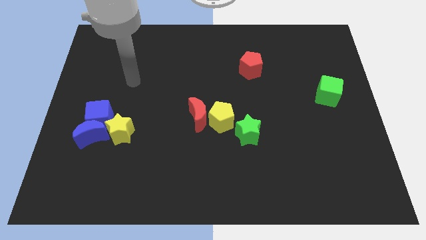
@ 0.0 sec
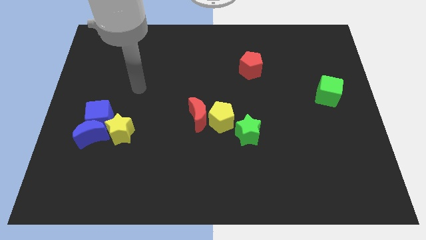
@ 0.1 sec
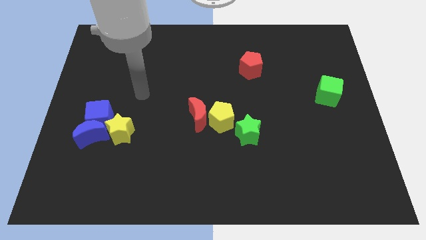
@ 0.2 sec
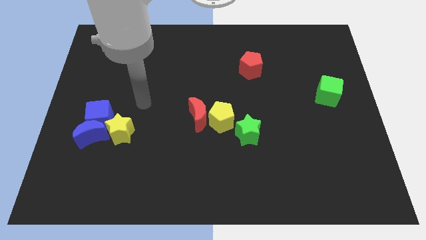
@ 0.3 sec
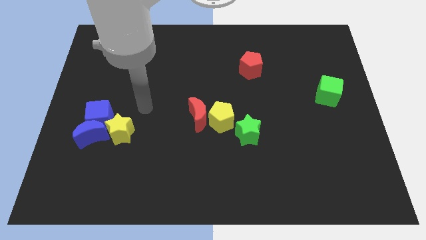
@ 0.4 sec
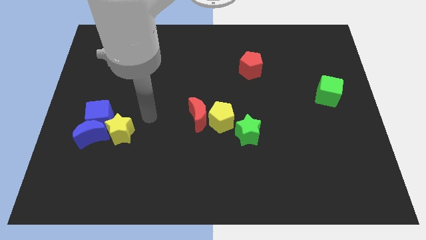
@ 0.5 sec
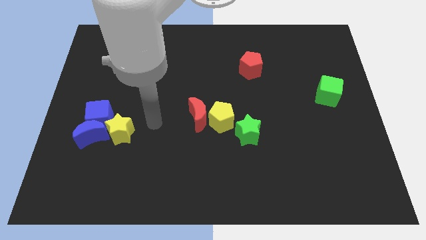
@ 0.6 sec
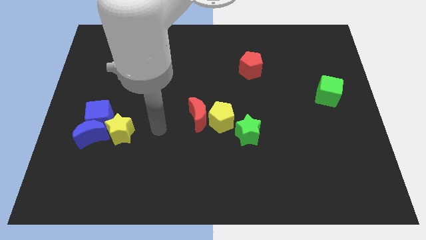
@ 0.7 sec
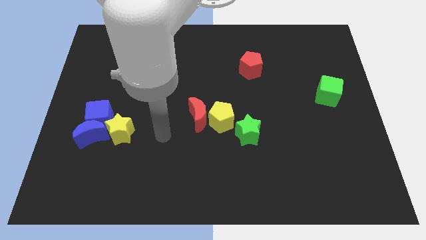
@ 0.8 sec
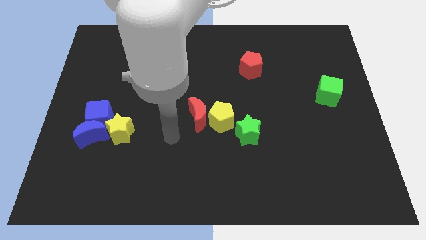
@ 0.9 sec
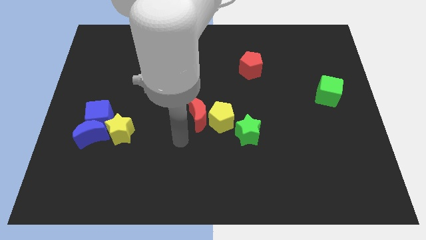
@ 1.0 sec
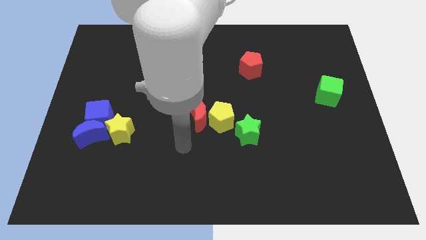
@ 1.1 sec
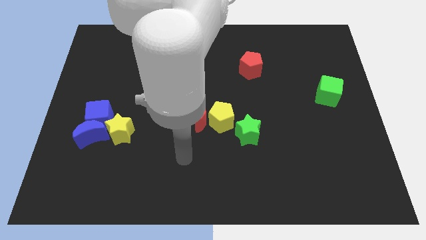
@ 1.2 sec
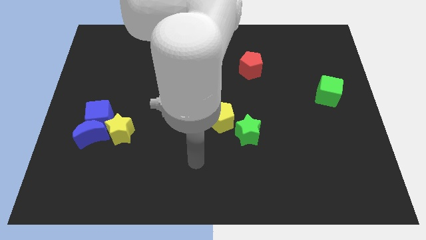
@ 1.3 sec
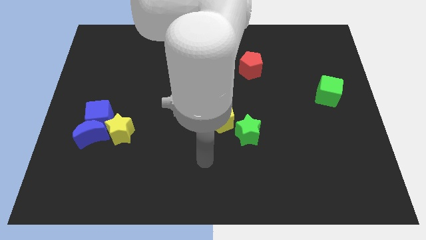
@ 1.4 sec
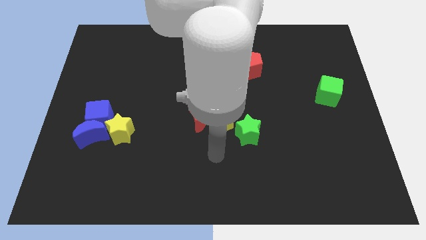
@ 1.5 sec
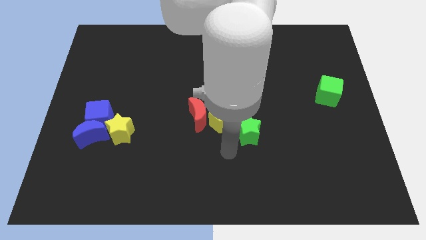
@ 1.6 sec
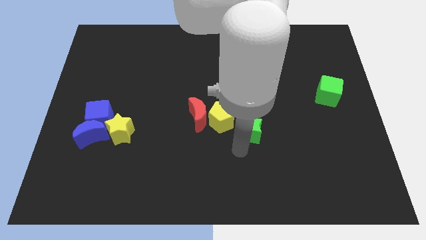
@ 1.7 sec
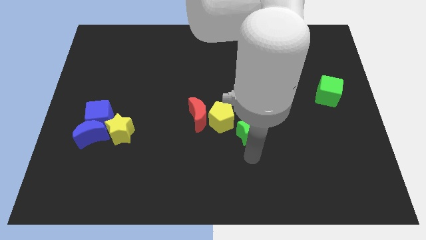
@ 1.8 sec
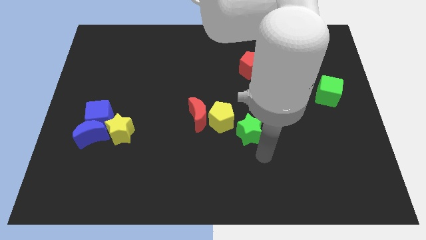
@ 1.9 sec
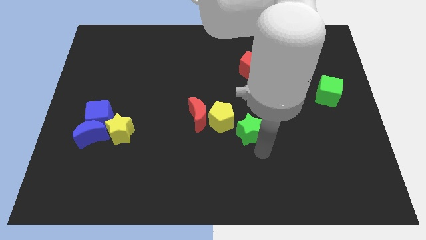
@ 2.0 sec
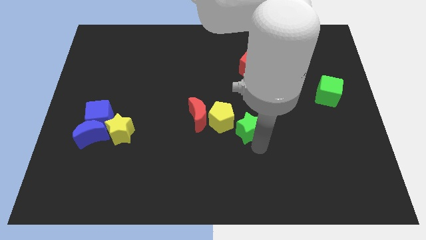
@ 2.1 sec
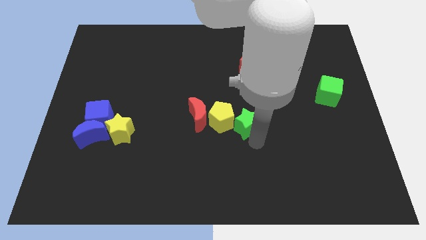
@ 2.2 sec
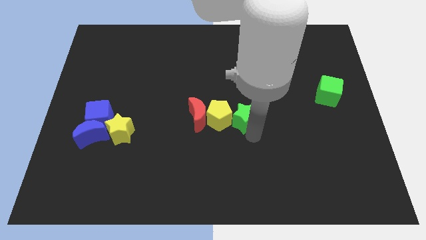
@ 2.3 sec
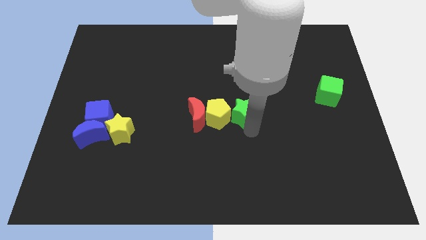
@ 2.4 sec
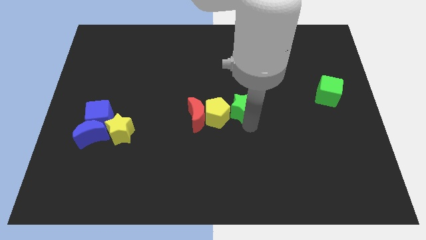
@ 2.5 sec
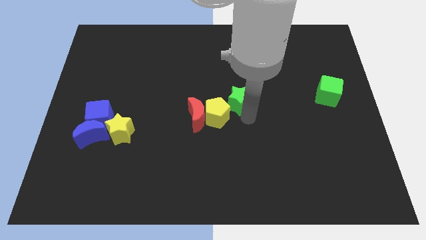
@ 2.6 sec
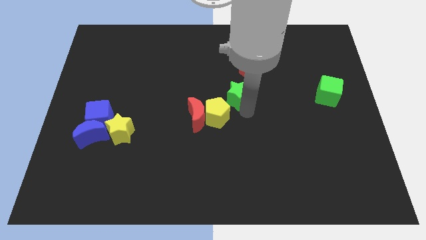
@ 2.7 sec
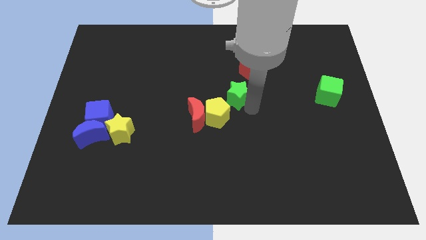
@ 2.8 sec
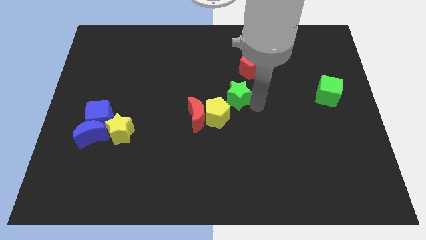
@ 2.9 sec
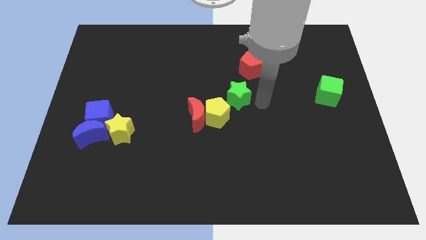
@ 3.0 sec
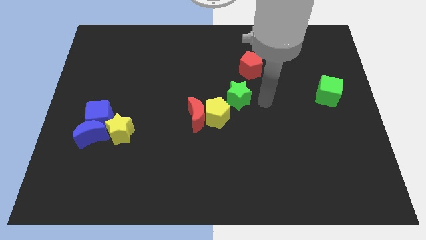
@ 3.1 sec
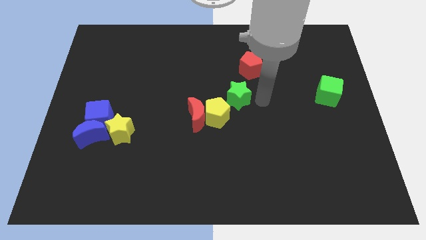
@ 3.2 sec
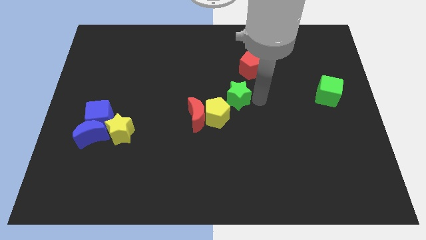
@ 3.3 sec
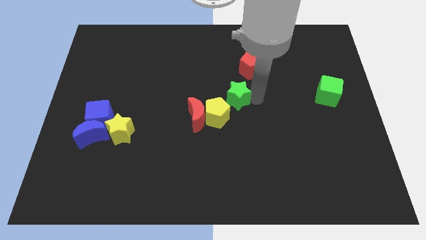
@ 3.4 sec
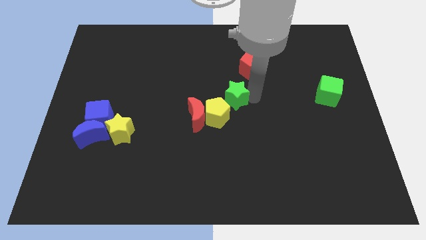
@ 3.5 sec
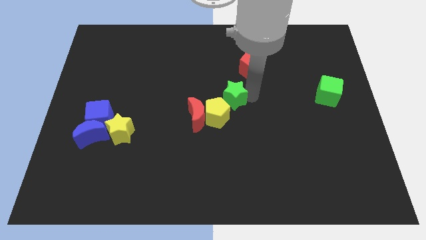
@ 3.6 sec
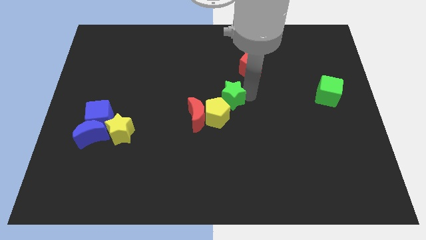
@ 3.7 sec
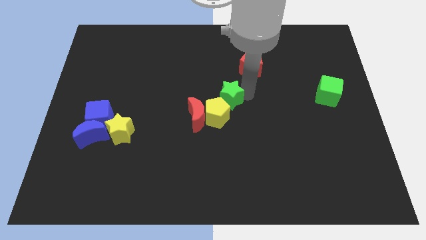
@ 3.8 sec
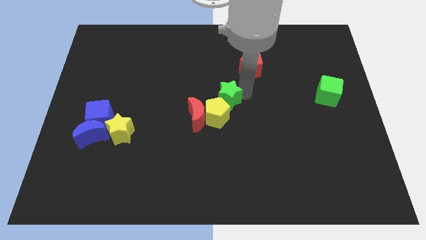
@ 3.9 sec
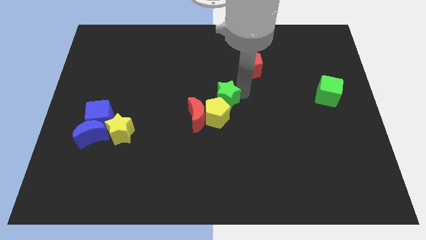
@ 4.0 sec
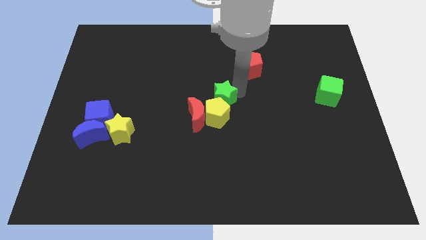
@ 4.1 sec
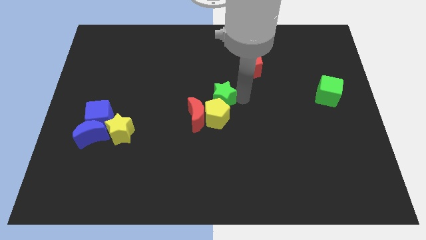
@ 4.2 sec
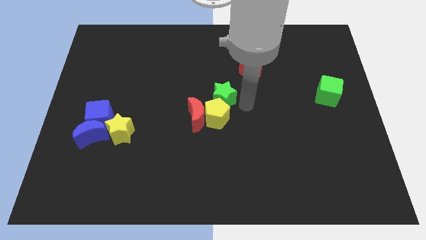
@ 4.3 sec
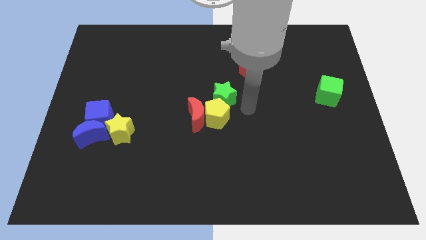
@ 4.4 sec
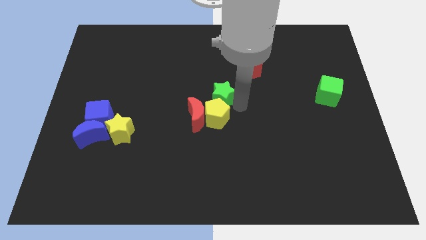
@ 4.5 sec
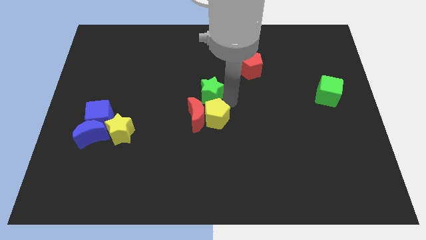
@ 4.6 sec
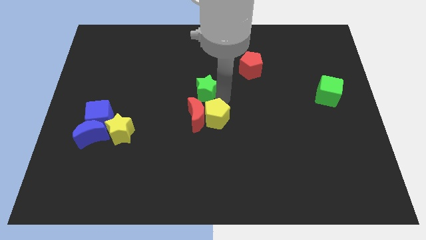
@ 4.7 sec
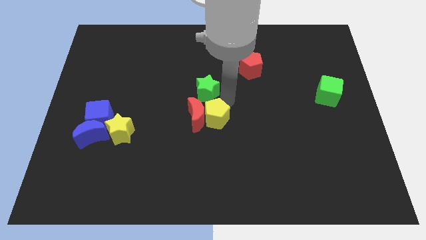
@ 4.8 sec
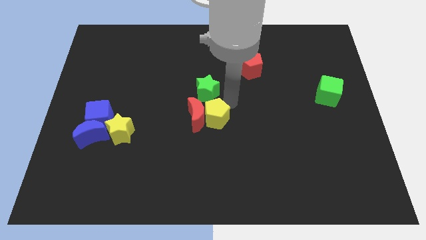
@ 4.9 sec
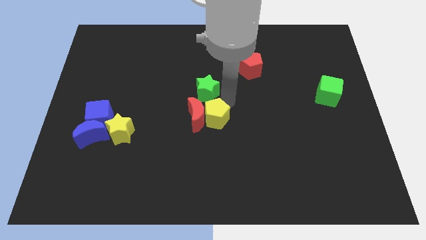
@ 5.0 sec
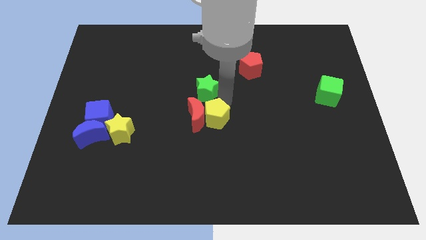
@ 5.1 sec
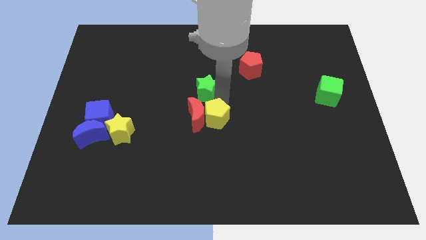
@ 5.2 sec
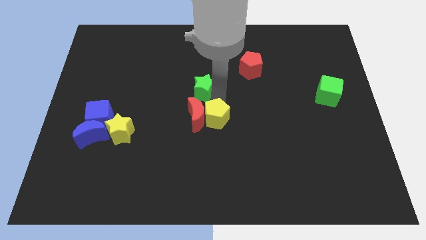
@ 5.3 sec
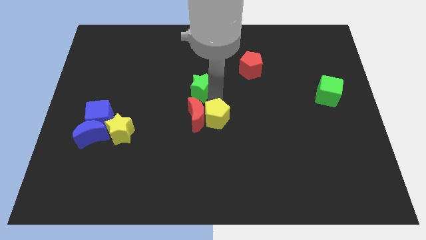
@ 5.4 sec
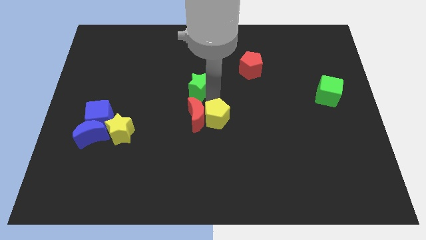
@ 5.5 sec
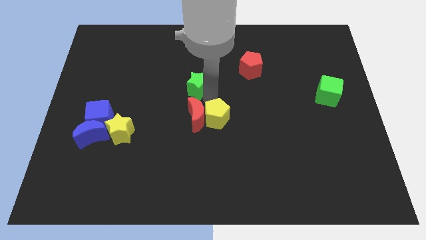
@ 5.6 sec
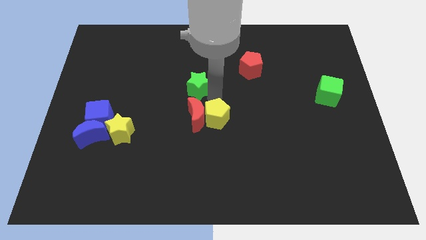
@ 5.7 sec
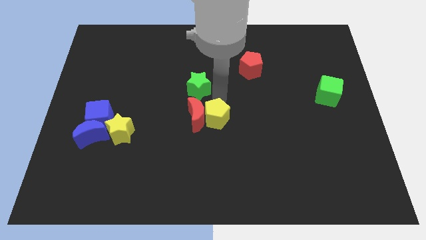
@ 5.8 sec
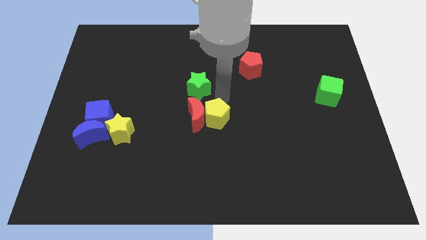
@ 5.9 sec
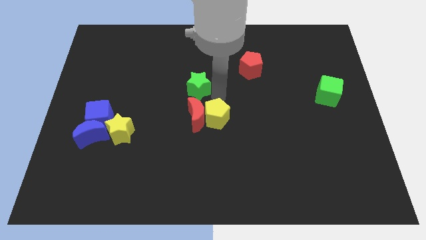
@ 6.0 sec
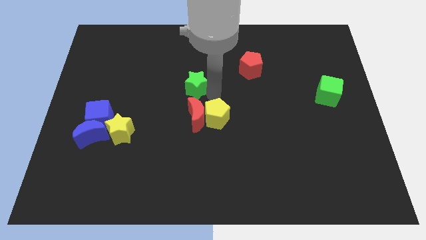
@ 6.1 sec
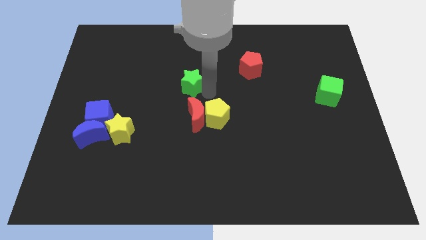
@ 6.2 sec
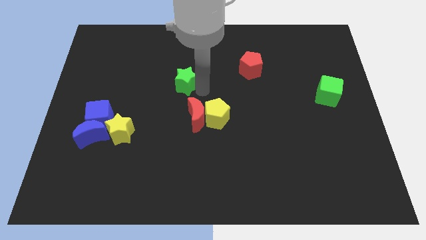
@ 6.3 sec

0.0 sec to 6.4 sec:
move the green star upwards and left

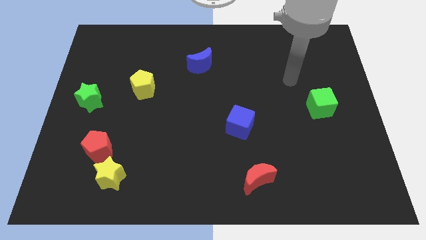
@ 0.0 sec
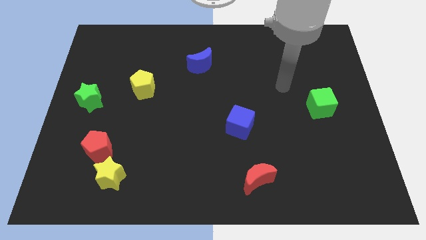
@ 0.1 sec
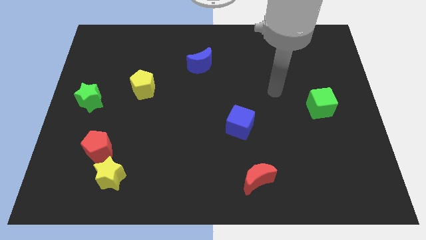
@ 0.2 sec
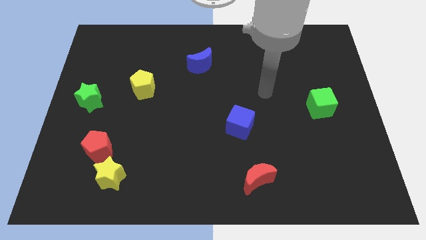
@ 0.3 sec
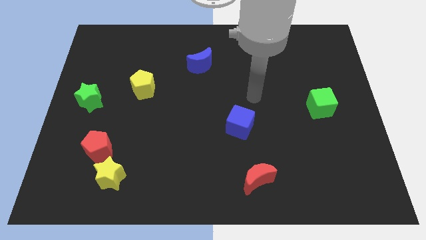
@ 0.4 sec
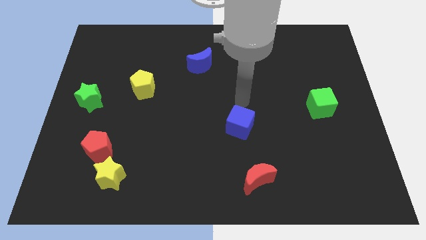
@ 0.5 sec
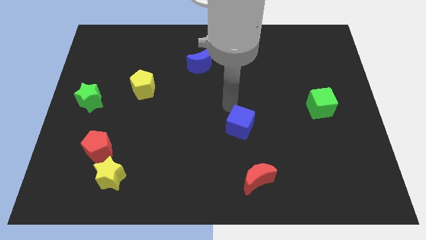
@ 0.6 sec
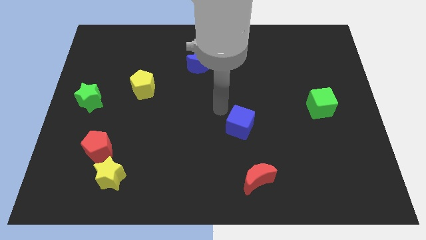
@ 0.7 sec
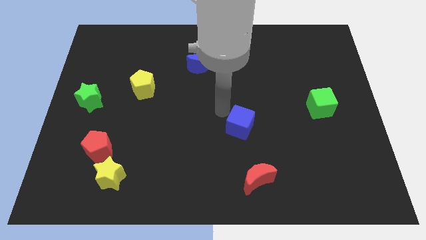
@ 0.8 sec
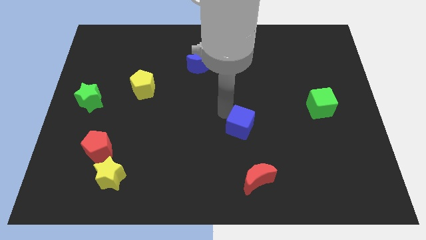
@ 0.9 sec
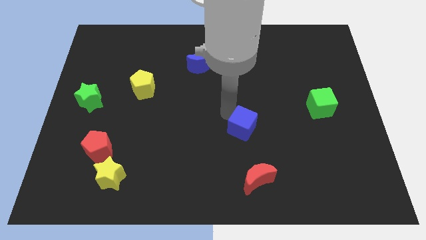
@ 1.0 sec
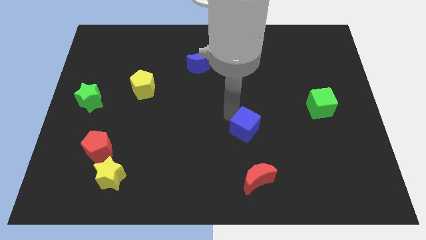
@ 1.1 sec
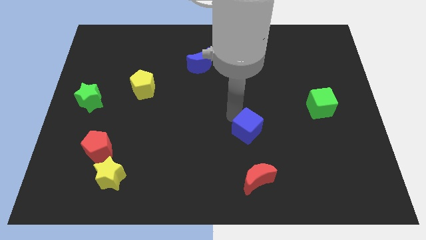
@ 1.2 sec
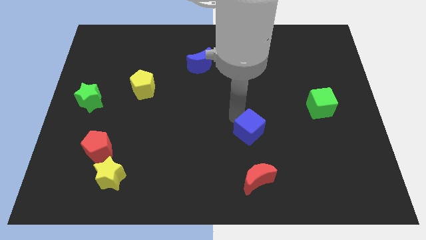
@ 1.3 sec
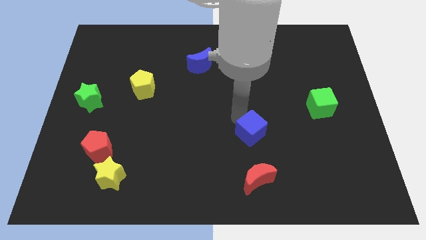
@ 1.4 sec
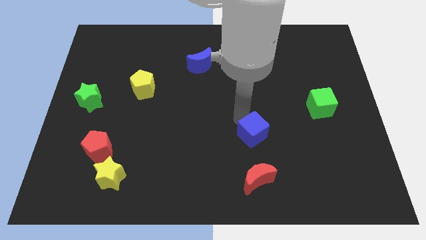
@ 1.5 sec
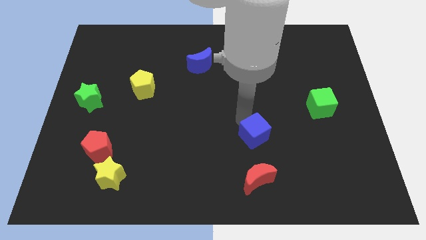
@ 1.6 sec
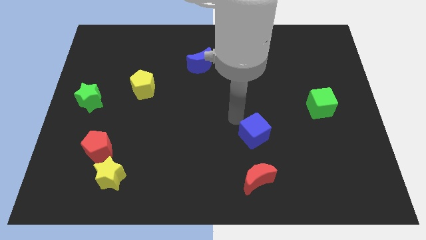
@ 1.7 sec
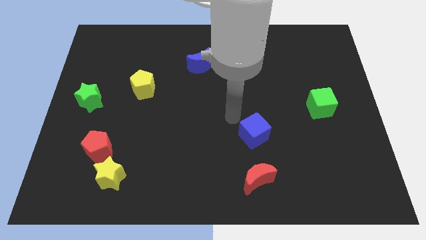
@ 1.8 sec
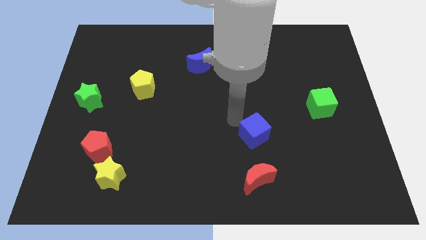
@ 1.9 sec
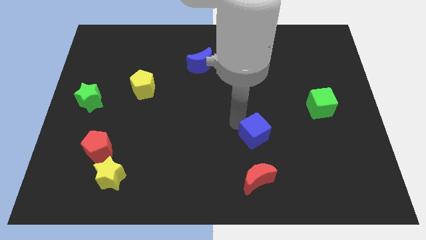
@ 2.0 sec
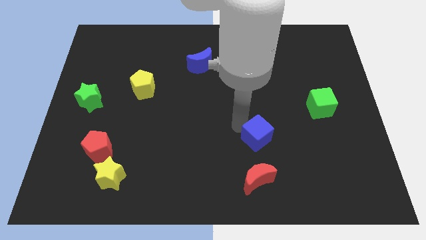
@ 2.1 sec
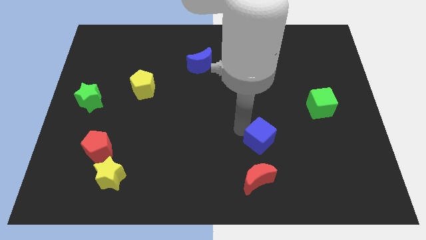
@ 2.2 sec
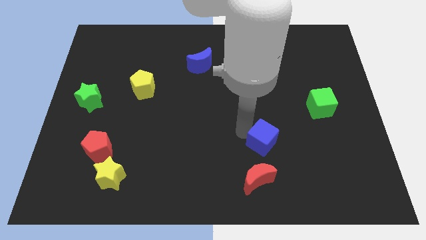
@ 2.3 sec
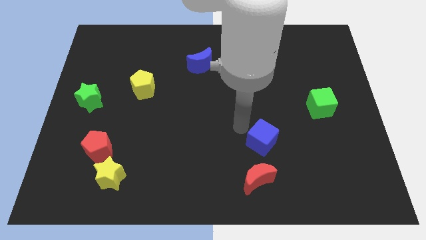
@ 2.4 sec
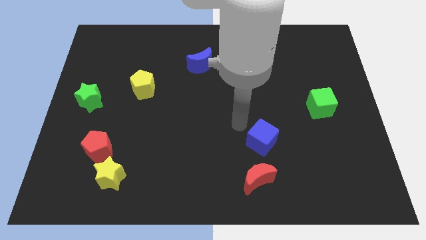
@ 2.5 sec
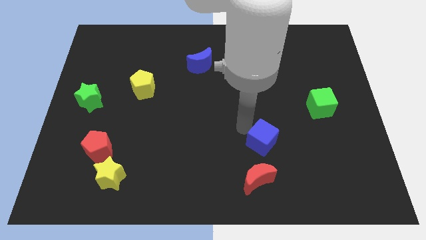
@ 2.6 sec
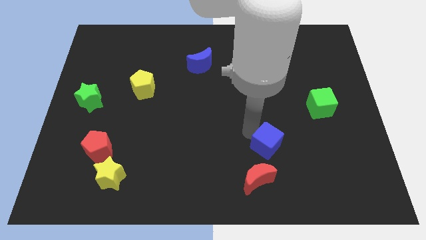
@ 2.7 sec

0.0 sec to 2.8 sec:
slightly push the blue cube down and to the right diagonally
